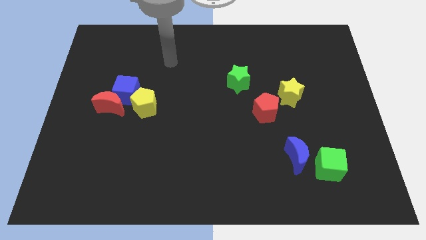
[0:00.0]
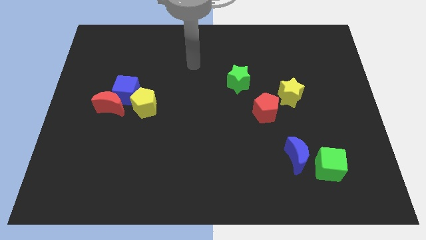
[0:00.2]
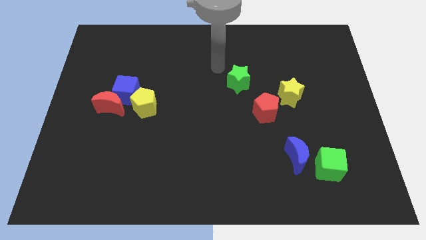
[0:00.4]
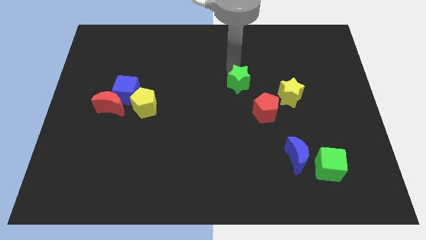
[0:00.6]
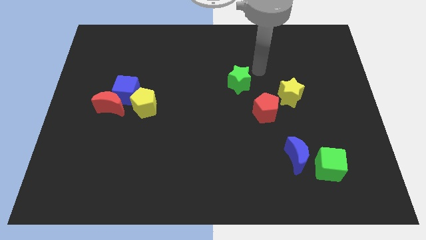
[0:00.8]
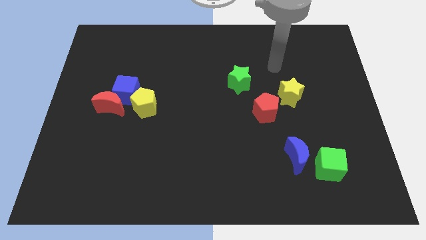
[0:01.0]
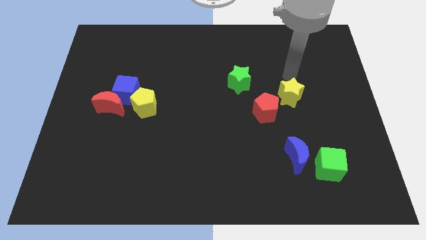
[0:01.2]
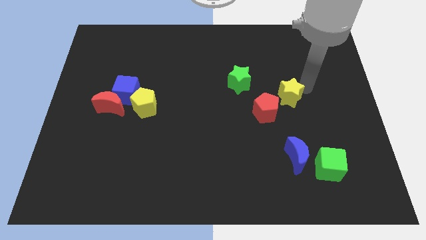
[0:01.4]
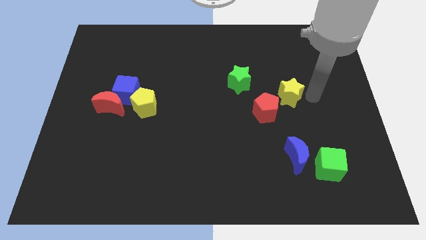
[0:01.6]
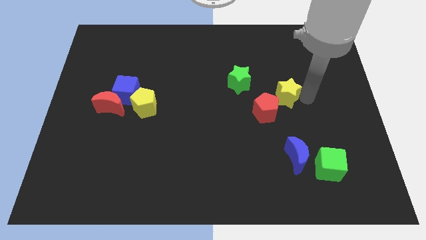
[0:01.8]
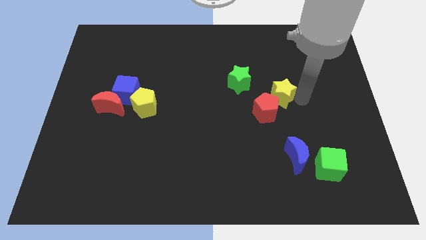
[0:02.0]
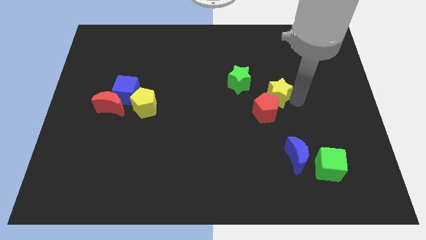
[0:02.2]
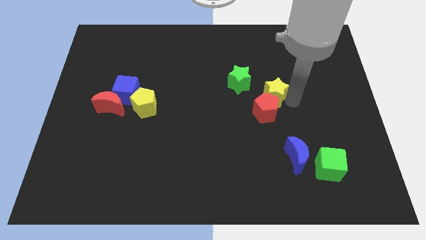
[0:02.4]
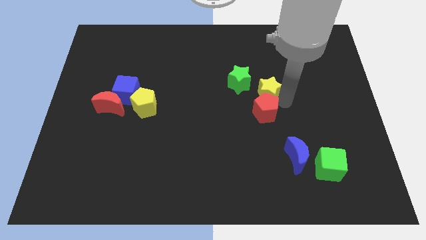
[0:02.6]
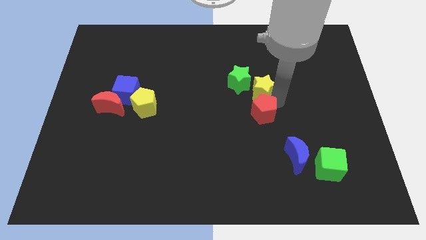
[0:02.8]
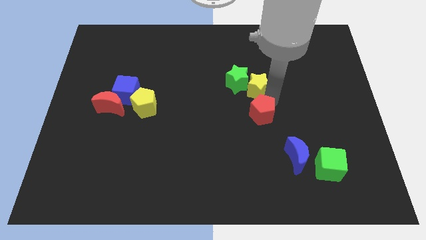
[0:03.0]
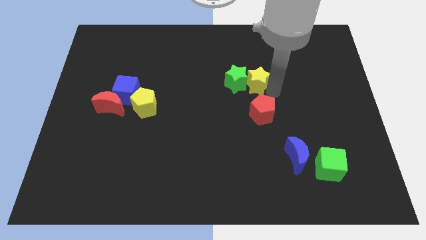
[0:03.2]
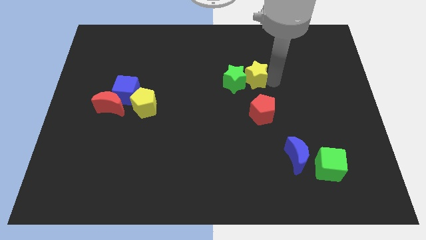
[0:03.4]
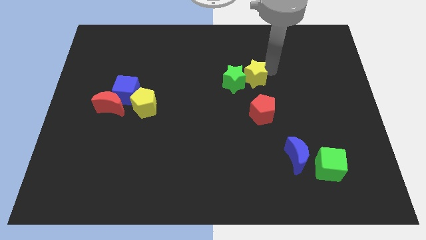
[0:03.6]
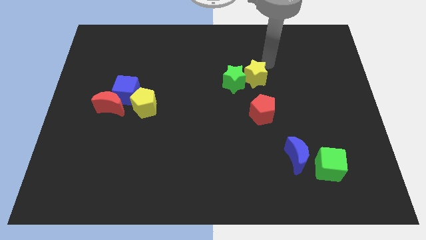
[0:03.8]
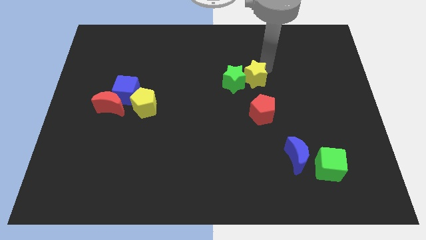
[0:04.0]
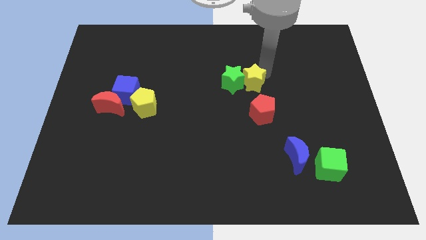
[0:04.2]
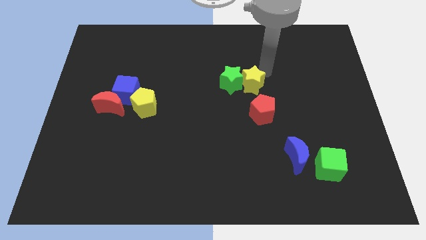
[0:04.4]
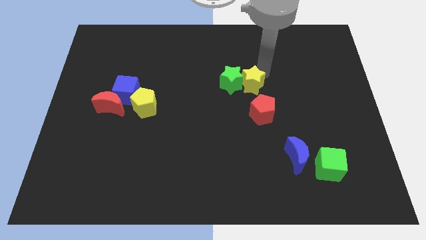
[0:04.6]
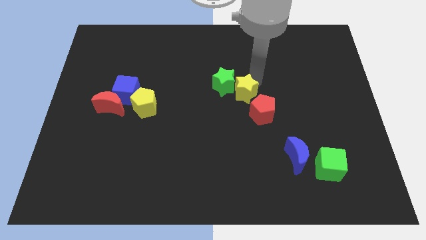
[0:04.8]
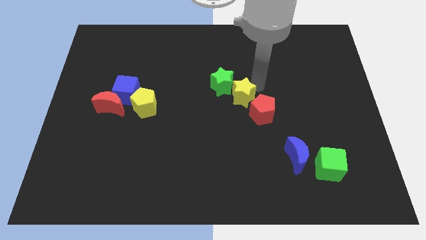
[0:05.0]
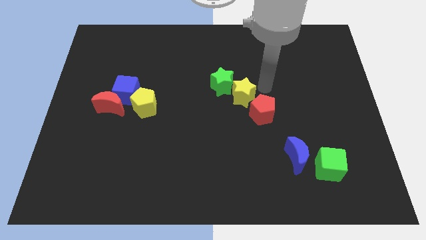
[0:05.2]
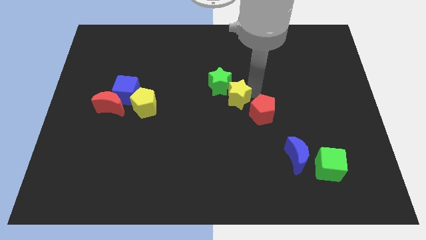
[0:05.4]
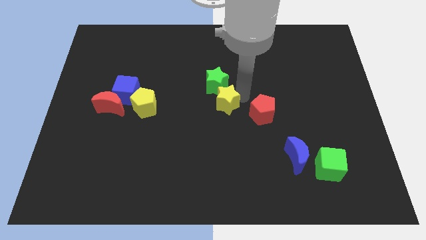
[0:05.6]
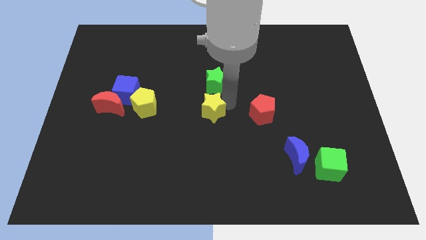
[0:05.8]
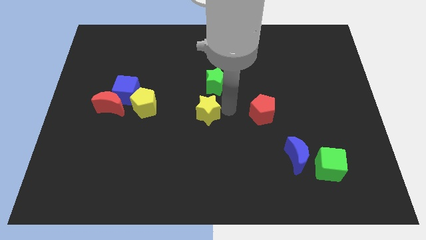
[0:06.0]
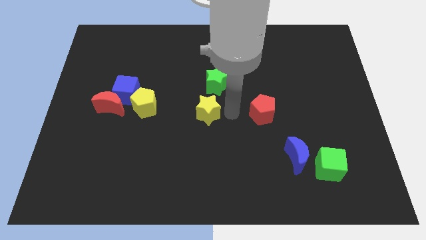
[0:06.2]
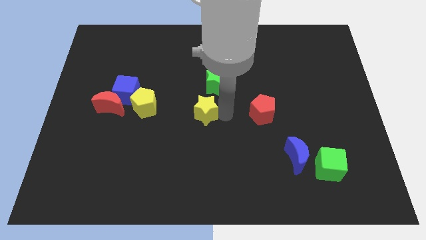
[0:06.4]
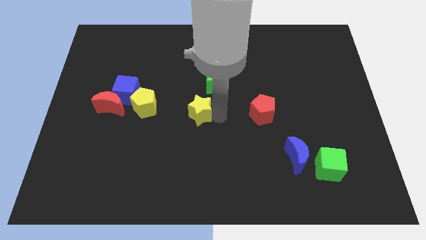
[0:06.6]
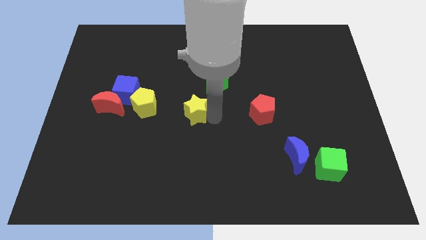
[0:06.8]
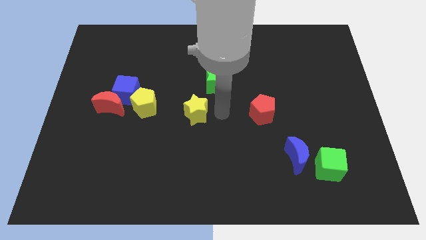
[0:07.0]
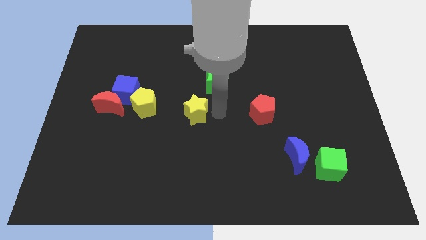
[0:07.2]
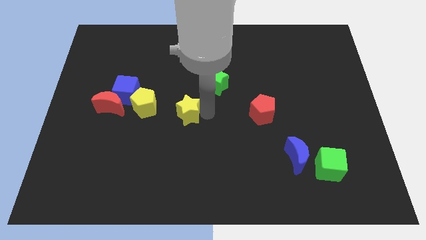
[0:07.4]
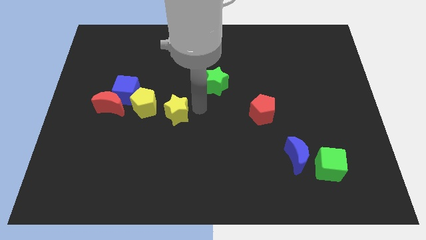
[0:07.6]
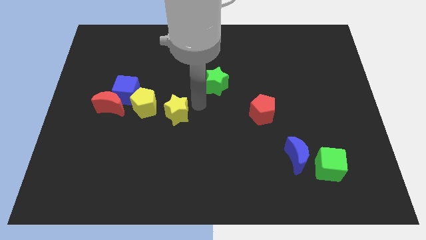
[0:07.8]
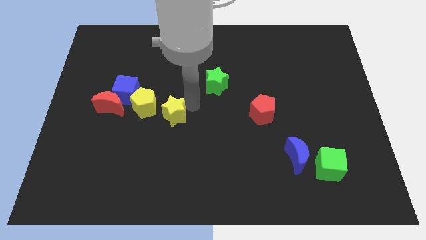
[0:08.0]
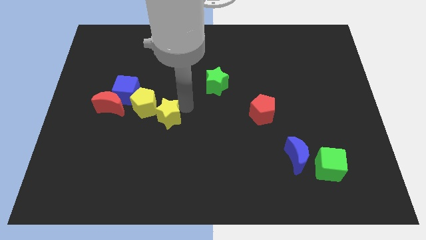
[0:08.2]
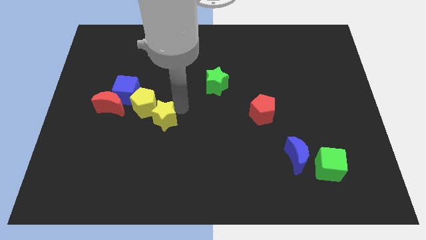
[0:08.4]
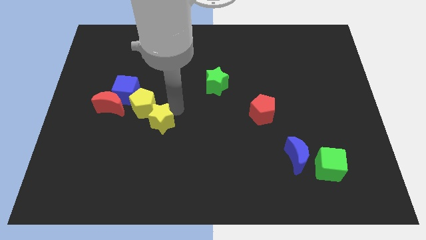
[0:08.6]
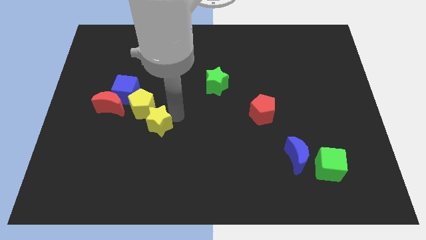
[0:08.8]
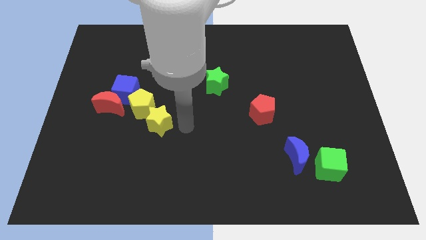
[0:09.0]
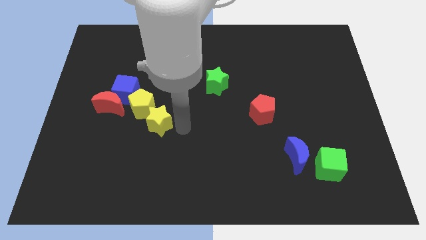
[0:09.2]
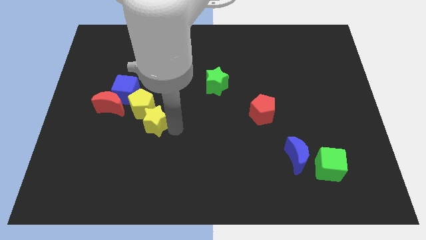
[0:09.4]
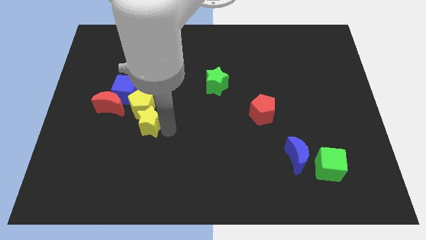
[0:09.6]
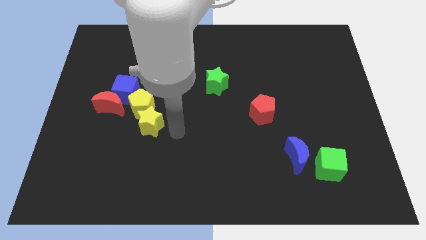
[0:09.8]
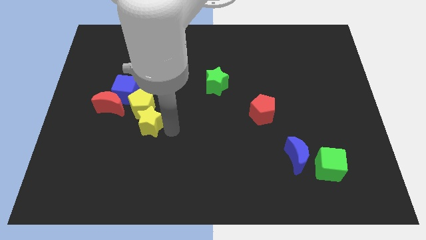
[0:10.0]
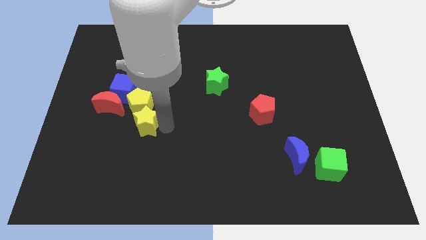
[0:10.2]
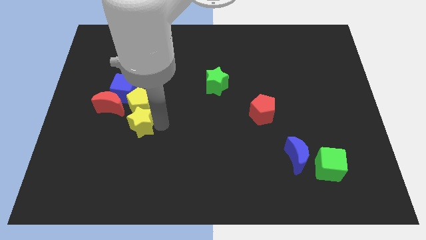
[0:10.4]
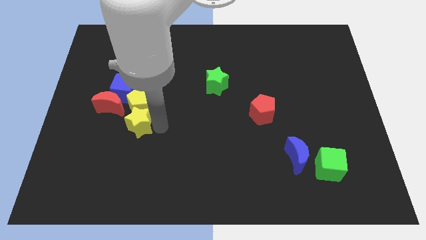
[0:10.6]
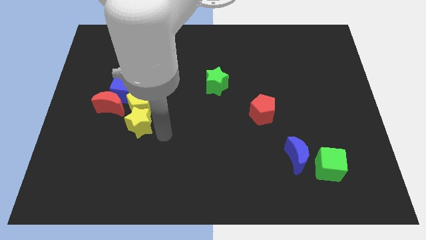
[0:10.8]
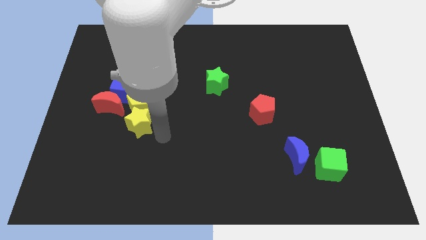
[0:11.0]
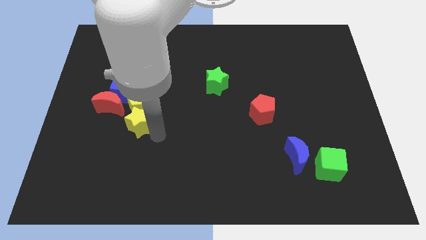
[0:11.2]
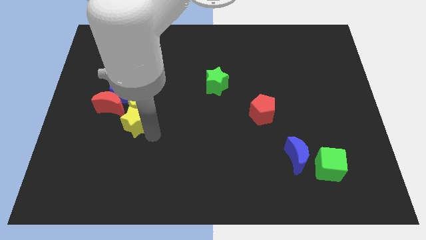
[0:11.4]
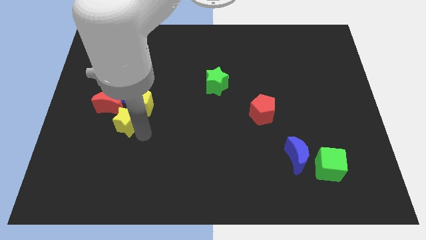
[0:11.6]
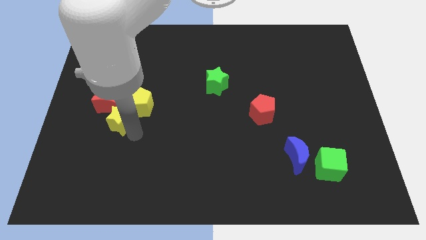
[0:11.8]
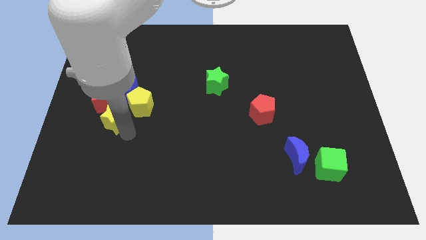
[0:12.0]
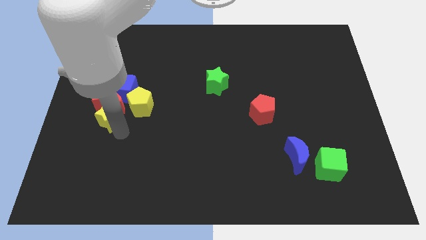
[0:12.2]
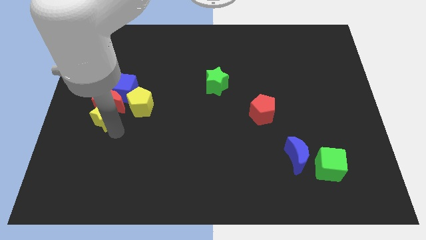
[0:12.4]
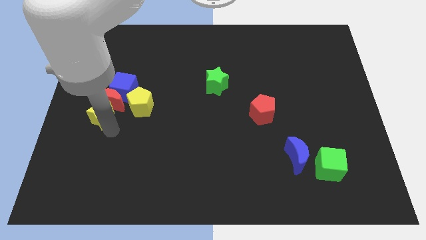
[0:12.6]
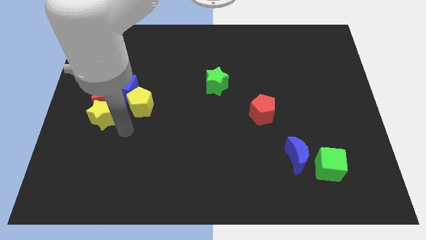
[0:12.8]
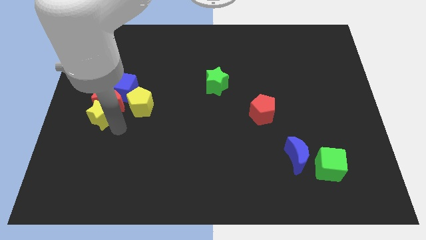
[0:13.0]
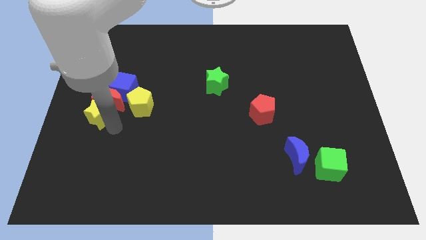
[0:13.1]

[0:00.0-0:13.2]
put the yellow star to the left side

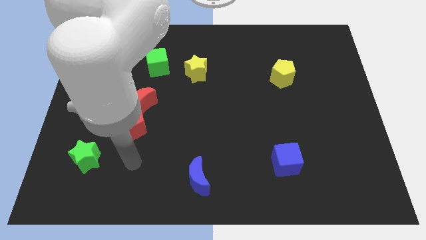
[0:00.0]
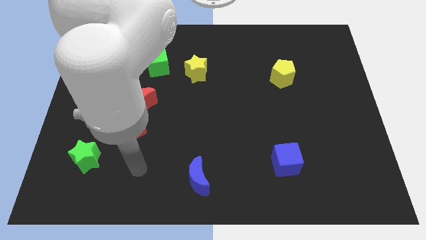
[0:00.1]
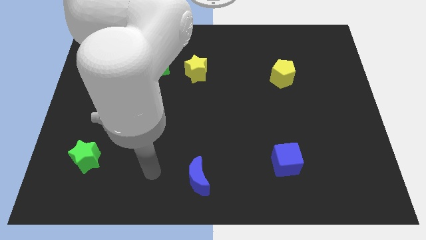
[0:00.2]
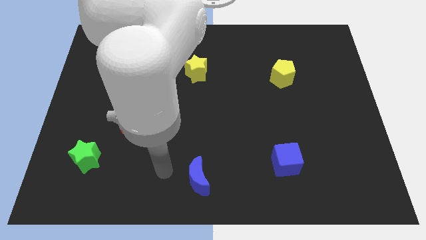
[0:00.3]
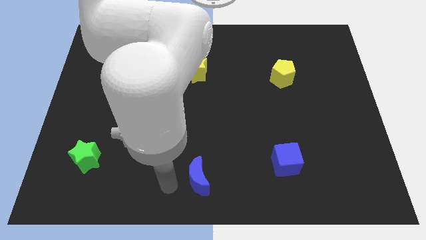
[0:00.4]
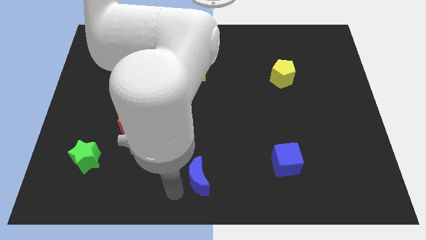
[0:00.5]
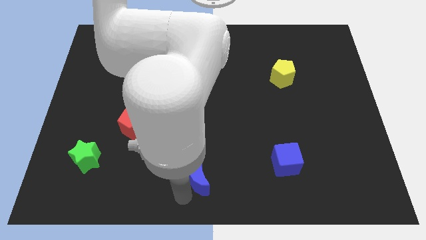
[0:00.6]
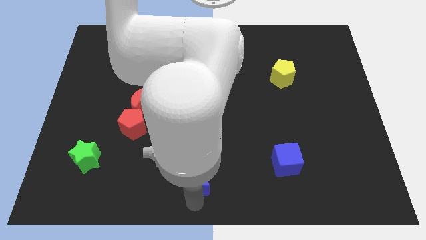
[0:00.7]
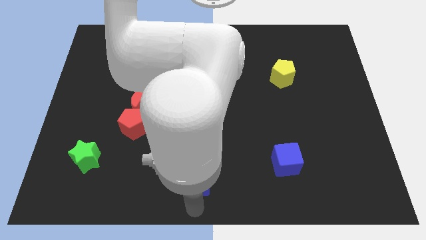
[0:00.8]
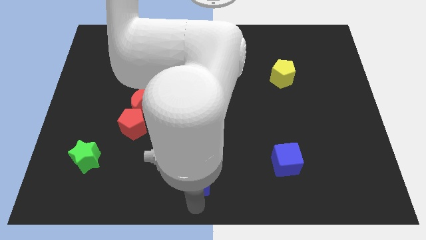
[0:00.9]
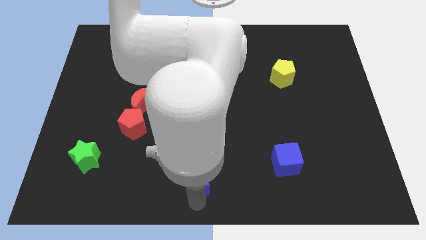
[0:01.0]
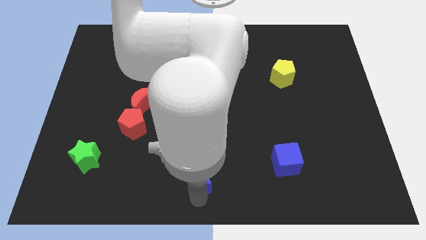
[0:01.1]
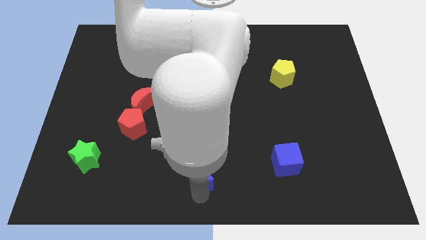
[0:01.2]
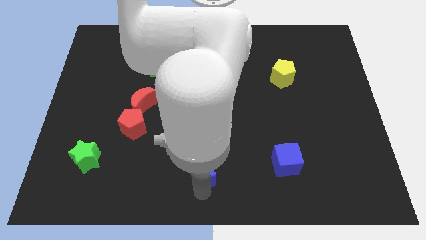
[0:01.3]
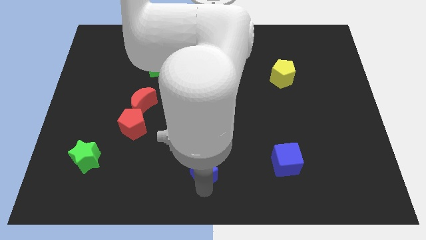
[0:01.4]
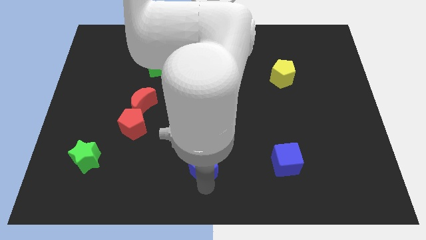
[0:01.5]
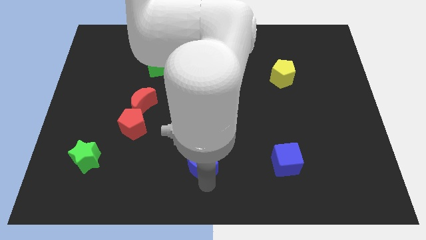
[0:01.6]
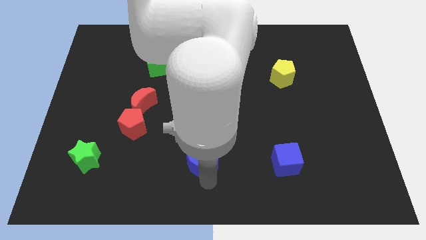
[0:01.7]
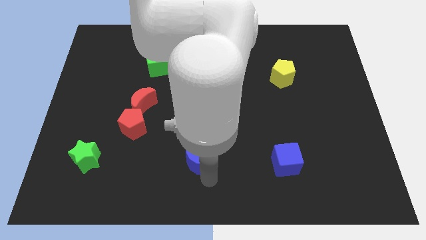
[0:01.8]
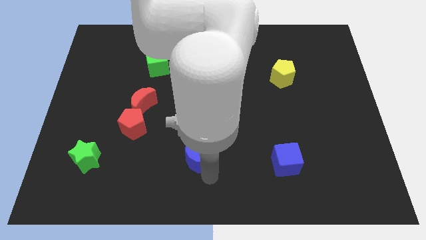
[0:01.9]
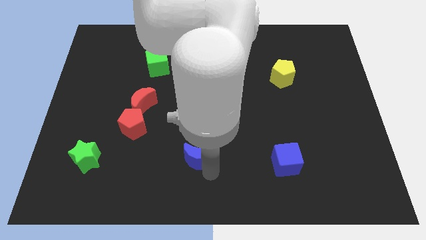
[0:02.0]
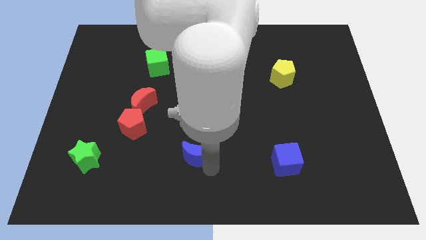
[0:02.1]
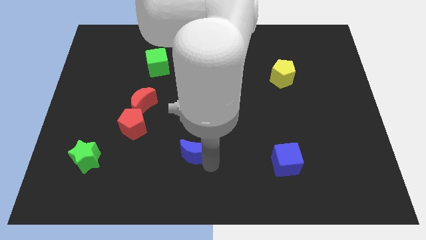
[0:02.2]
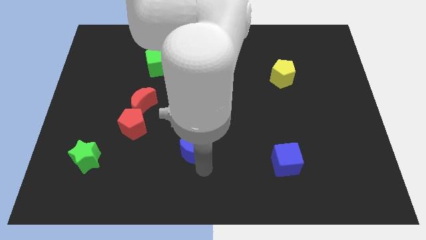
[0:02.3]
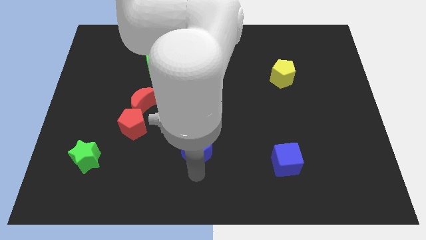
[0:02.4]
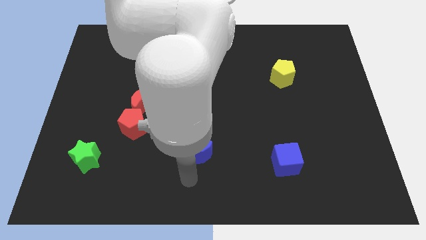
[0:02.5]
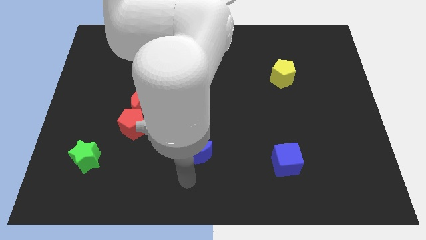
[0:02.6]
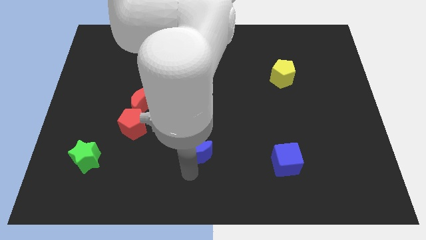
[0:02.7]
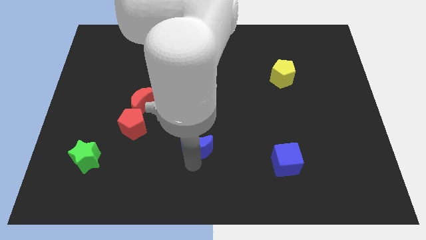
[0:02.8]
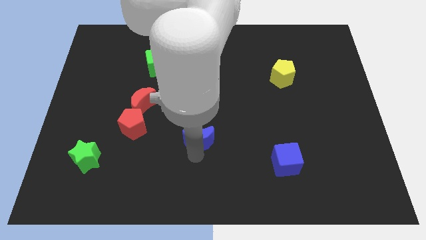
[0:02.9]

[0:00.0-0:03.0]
move the blue moon to the center of the board
